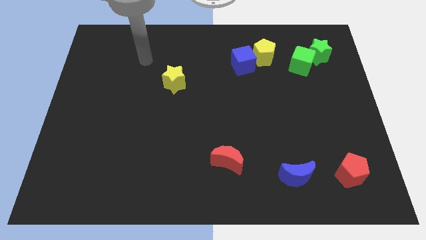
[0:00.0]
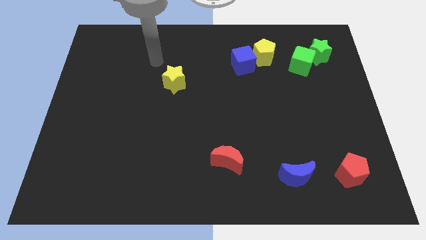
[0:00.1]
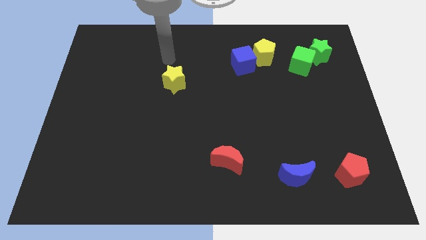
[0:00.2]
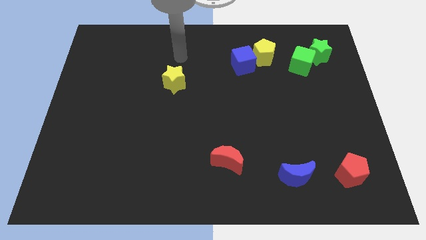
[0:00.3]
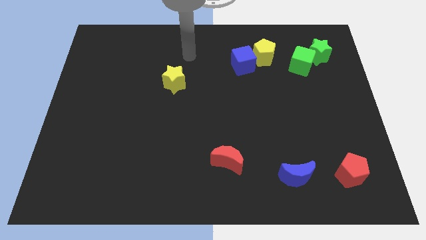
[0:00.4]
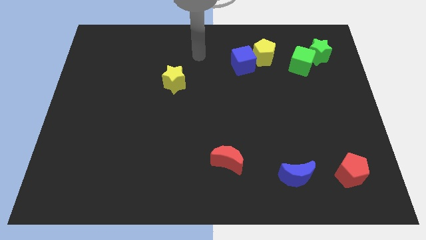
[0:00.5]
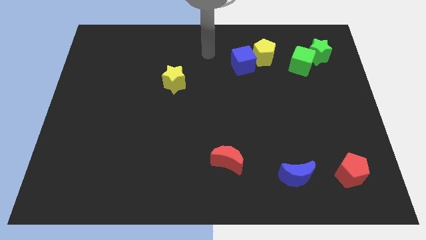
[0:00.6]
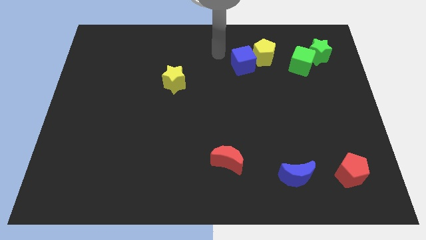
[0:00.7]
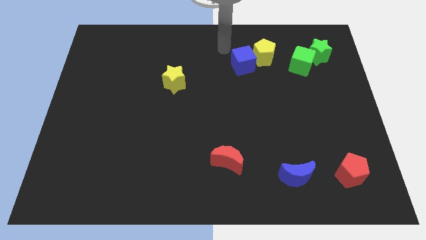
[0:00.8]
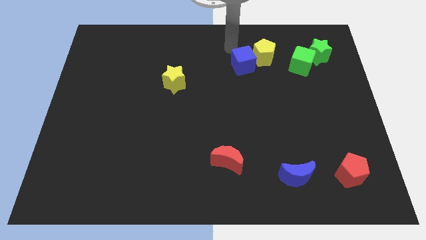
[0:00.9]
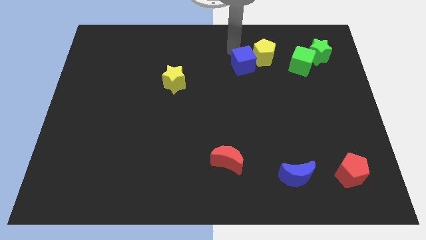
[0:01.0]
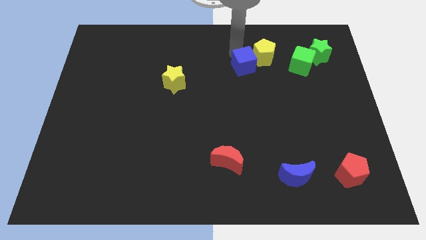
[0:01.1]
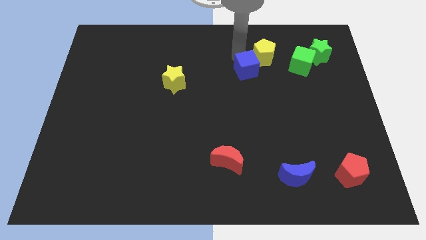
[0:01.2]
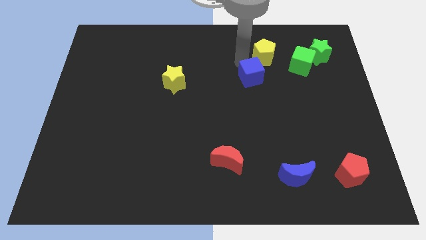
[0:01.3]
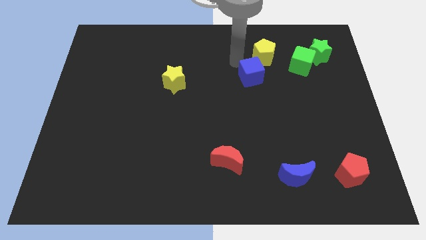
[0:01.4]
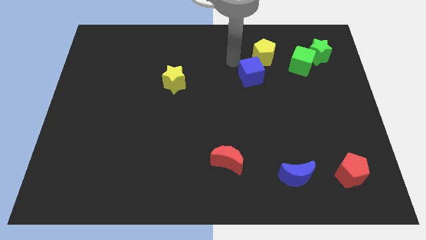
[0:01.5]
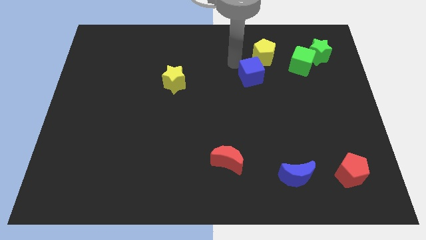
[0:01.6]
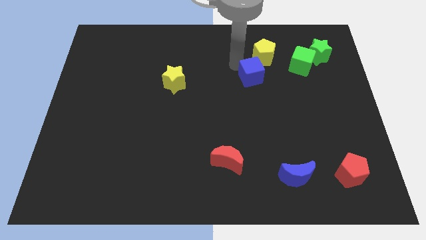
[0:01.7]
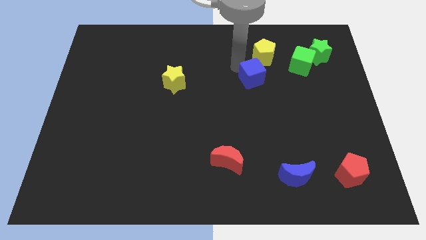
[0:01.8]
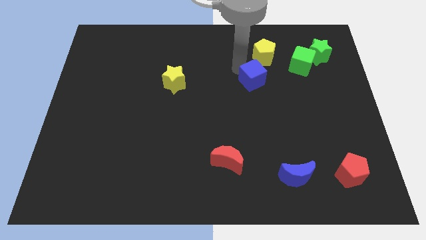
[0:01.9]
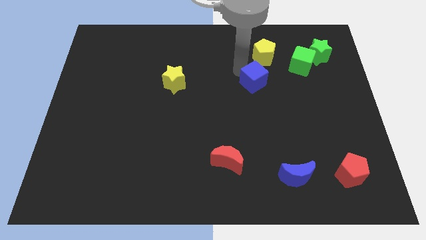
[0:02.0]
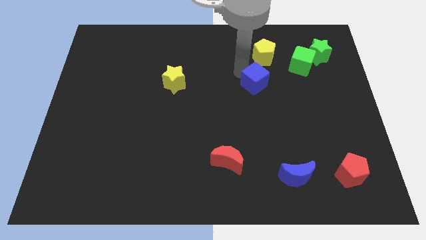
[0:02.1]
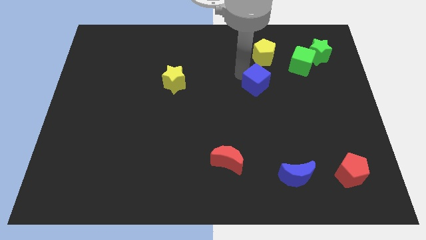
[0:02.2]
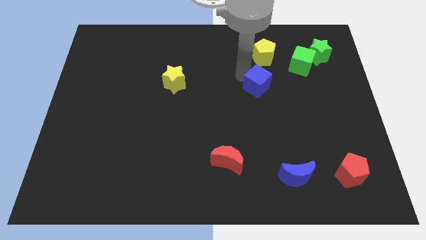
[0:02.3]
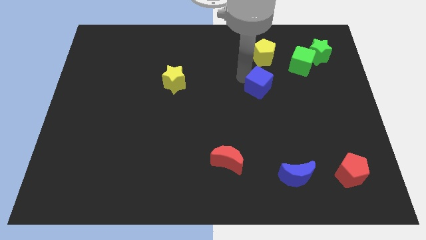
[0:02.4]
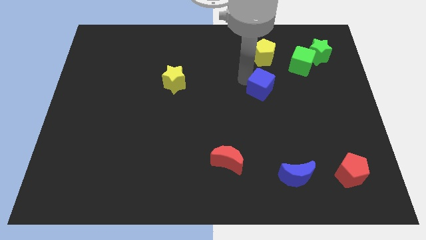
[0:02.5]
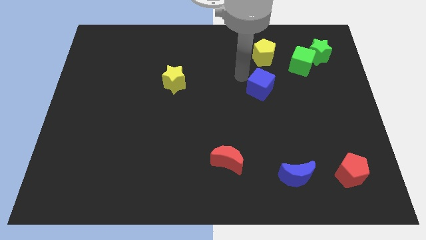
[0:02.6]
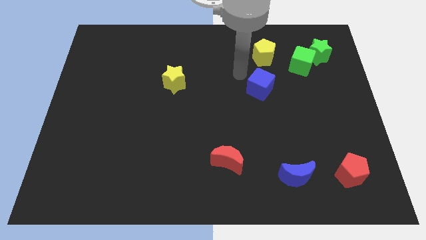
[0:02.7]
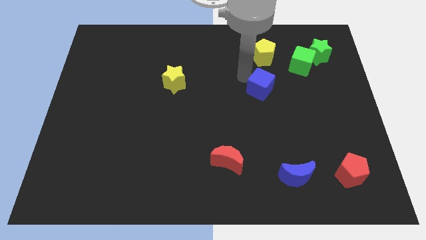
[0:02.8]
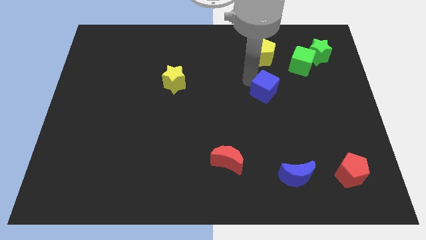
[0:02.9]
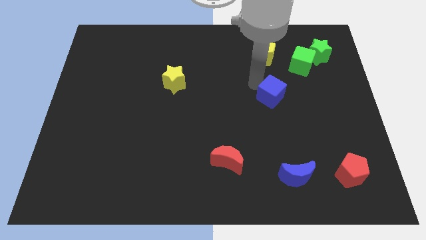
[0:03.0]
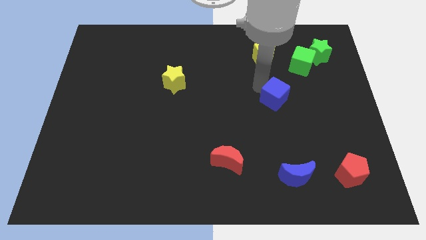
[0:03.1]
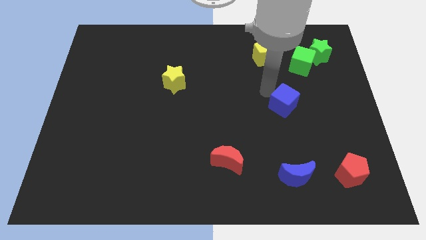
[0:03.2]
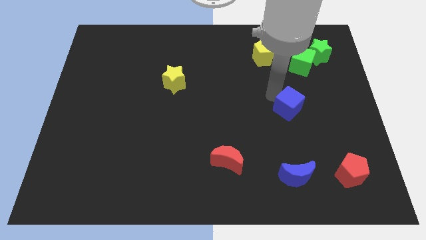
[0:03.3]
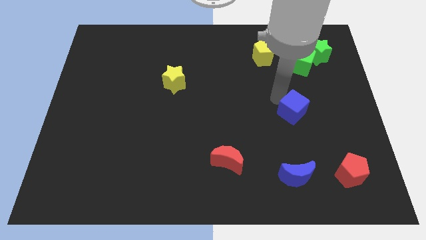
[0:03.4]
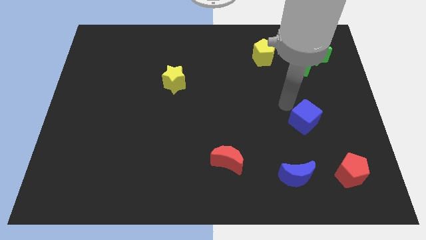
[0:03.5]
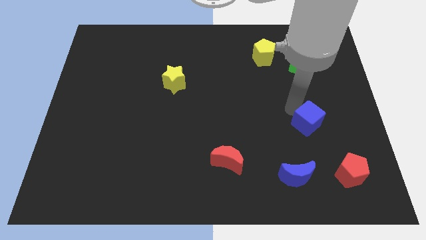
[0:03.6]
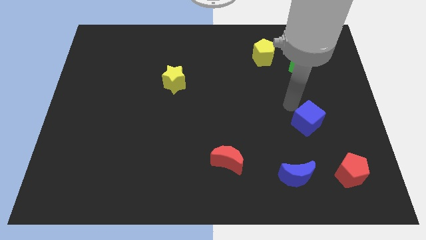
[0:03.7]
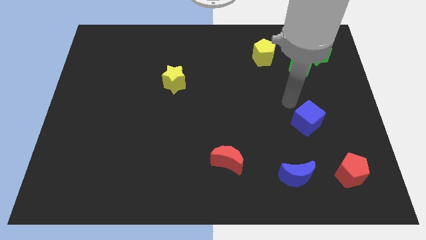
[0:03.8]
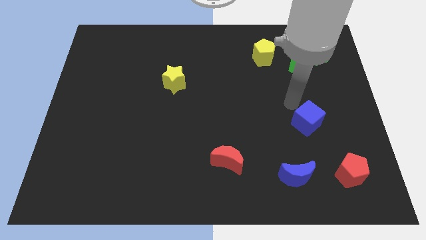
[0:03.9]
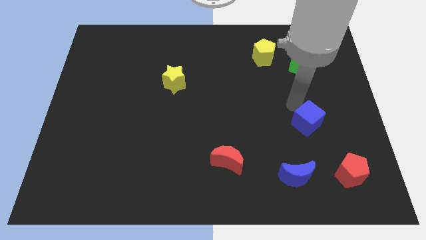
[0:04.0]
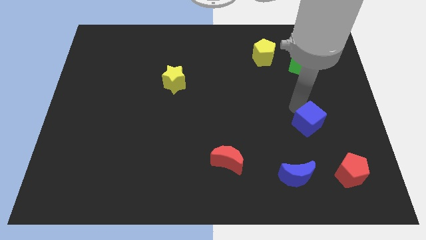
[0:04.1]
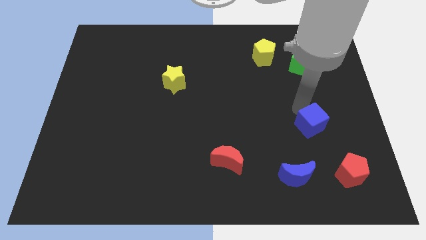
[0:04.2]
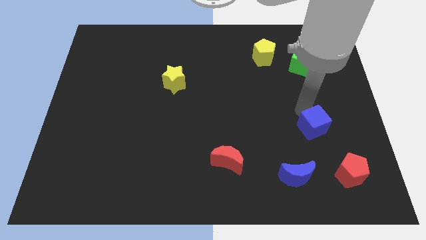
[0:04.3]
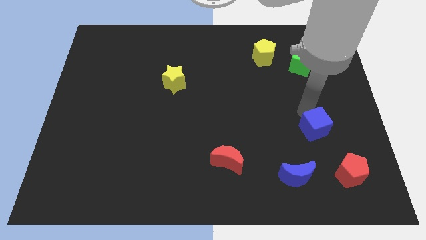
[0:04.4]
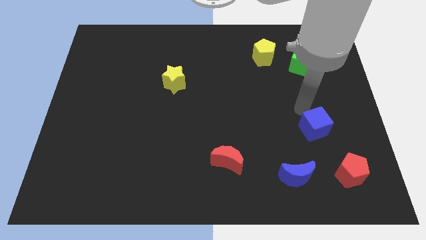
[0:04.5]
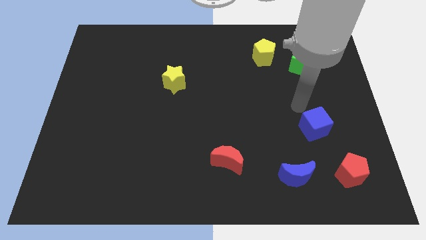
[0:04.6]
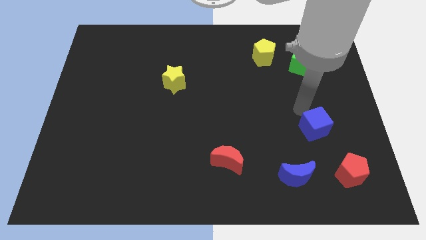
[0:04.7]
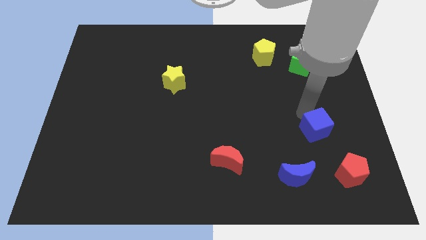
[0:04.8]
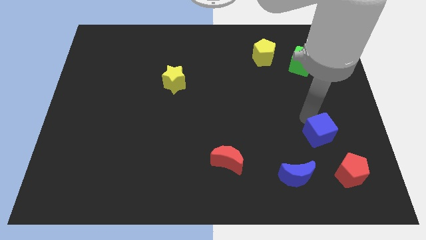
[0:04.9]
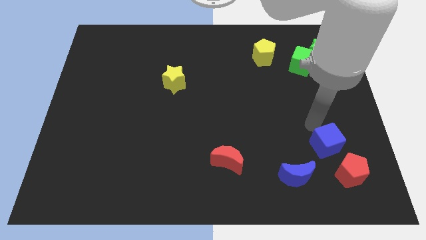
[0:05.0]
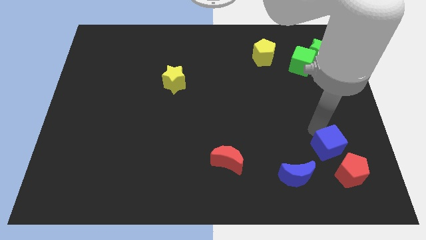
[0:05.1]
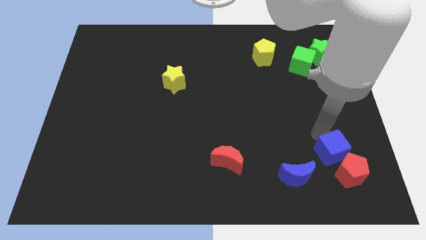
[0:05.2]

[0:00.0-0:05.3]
push the blue cube to the red pentagon

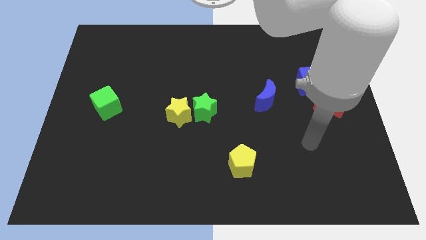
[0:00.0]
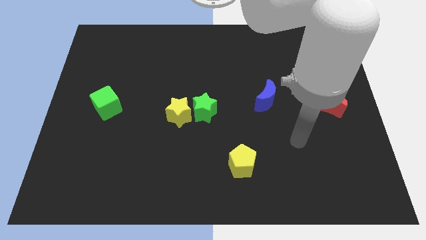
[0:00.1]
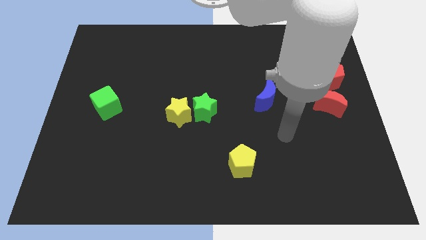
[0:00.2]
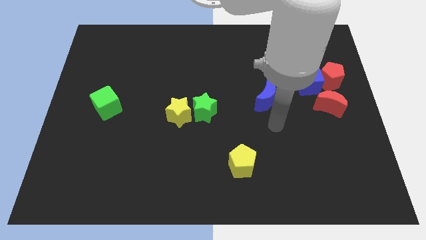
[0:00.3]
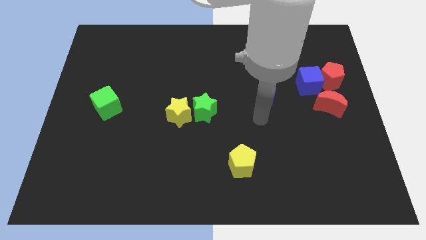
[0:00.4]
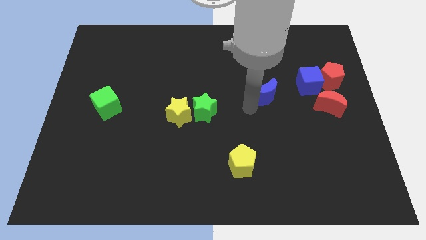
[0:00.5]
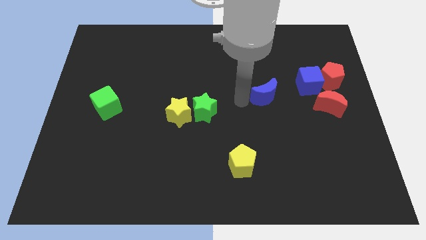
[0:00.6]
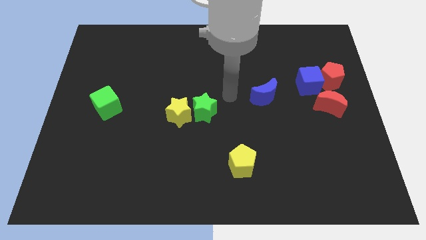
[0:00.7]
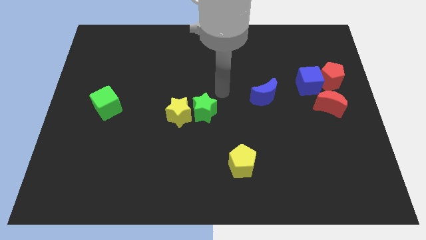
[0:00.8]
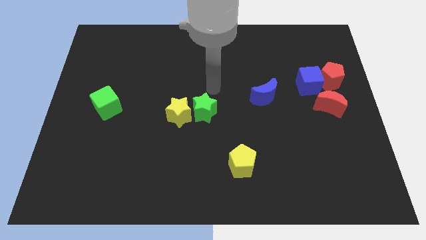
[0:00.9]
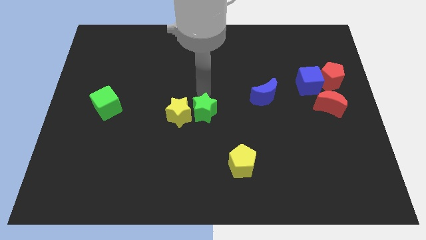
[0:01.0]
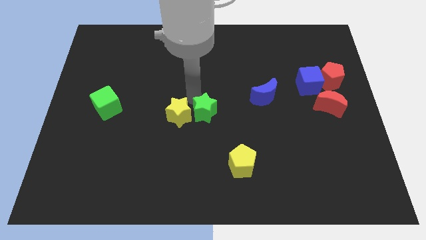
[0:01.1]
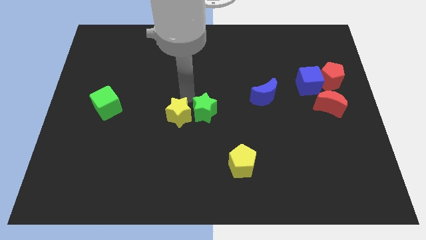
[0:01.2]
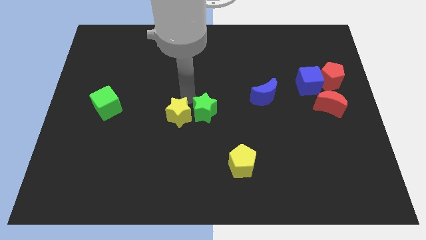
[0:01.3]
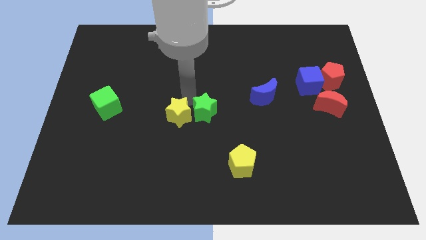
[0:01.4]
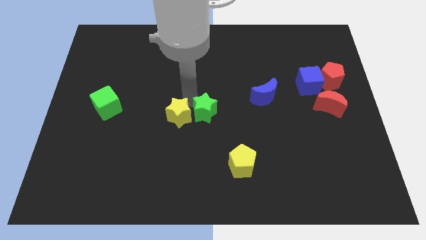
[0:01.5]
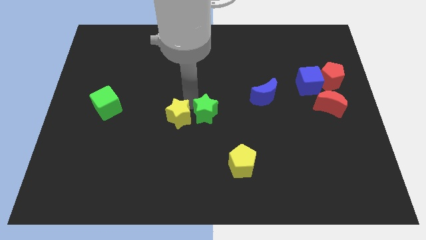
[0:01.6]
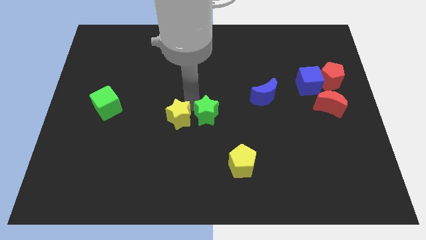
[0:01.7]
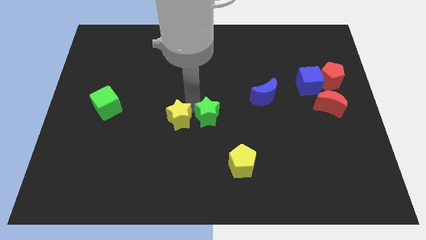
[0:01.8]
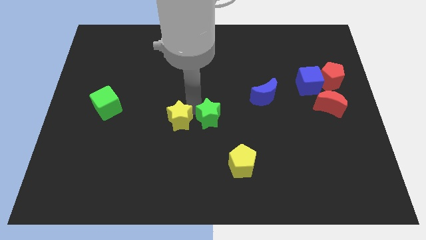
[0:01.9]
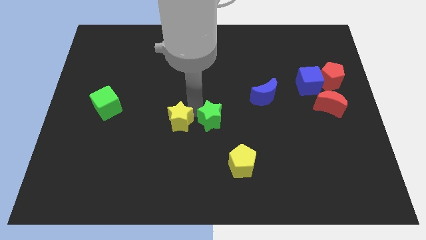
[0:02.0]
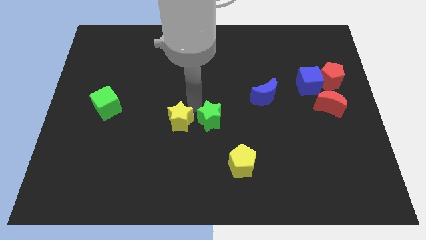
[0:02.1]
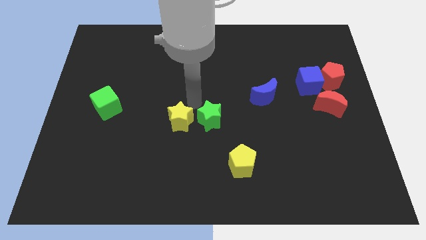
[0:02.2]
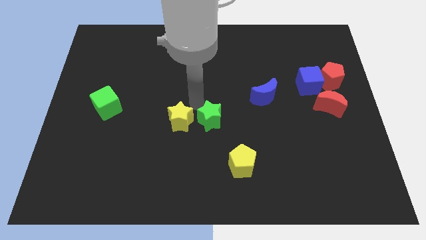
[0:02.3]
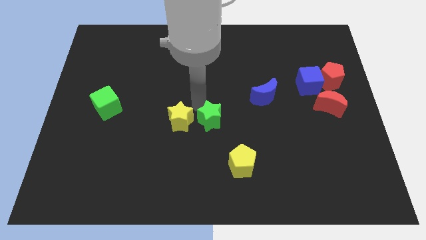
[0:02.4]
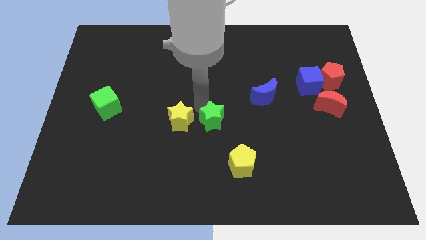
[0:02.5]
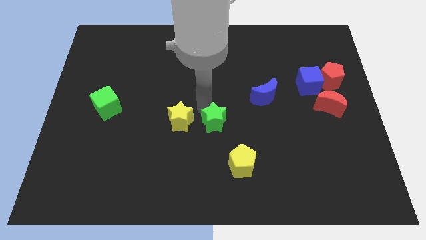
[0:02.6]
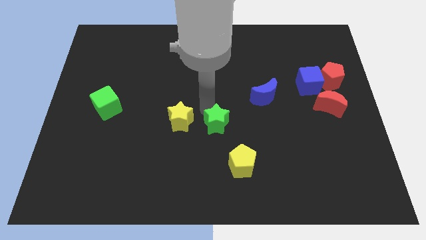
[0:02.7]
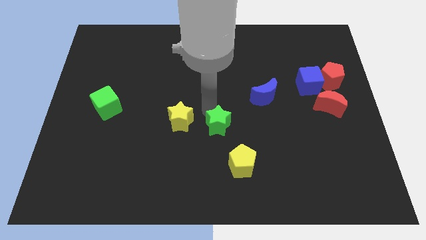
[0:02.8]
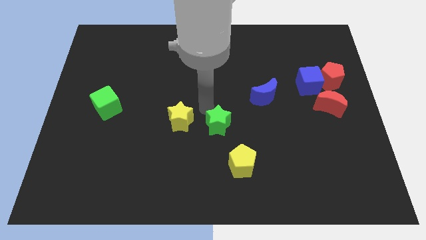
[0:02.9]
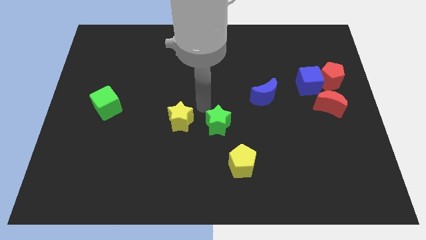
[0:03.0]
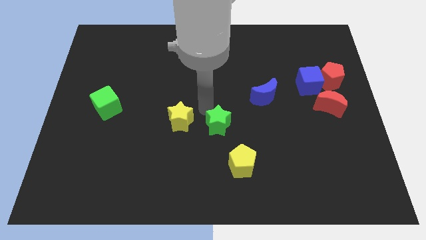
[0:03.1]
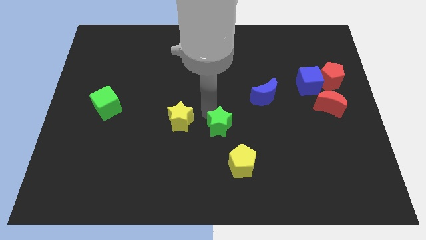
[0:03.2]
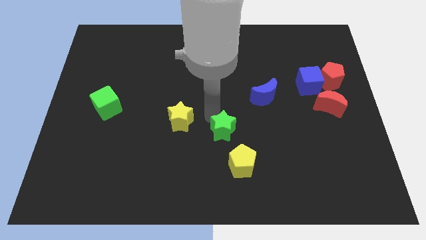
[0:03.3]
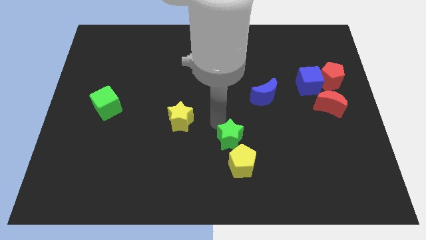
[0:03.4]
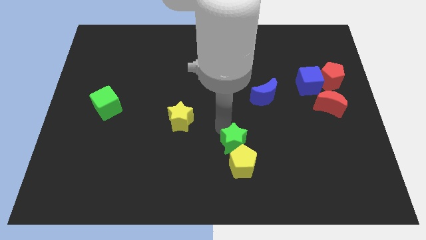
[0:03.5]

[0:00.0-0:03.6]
put the green star next to the yellow pentagon
